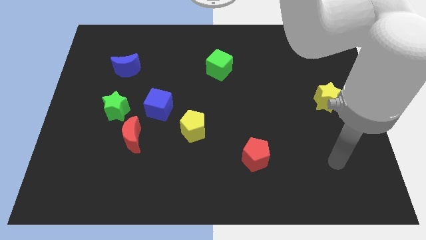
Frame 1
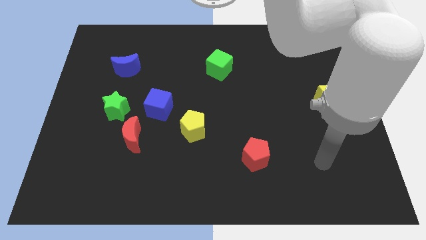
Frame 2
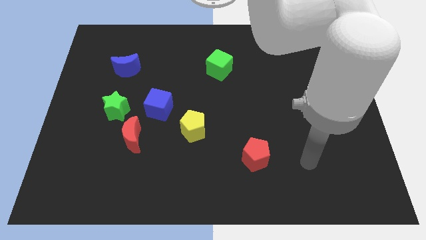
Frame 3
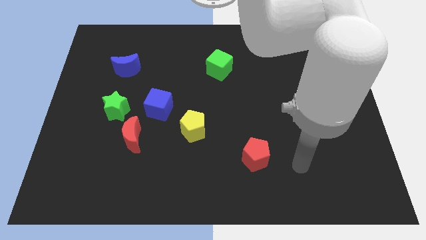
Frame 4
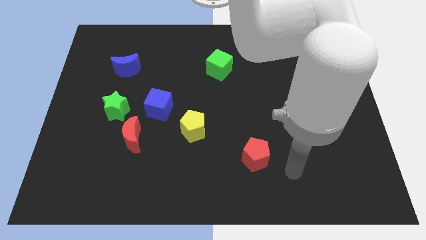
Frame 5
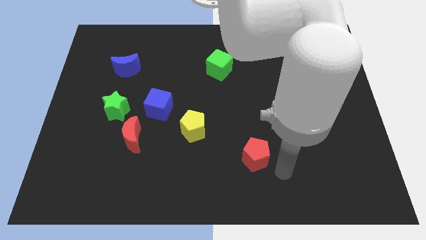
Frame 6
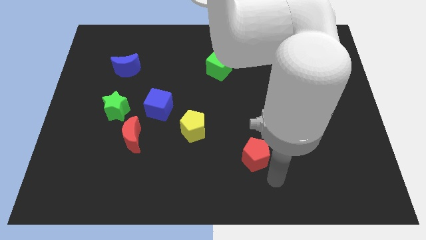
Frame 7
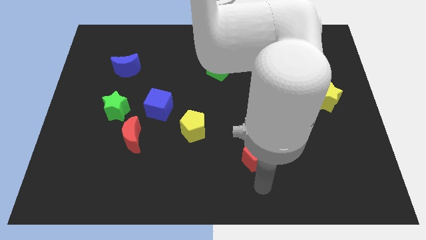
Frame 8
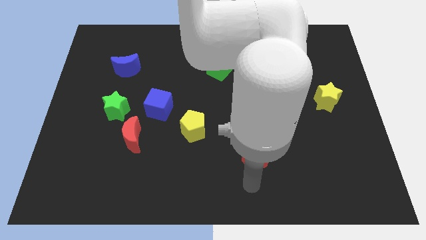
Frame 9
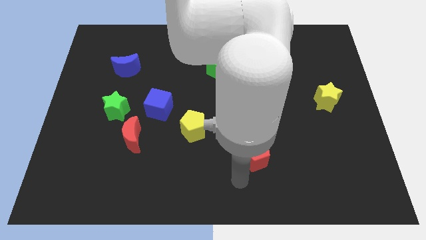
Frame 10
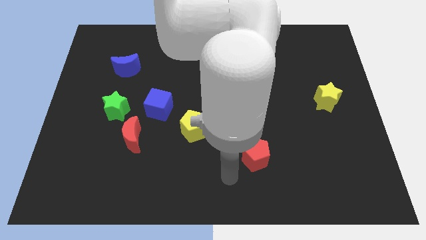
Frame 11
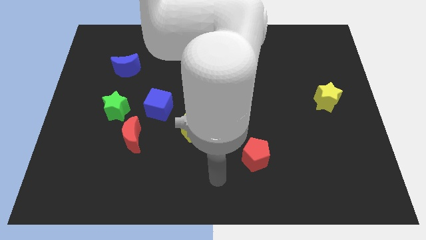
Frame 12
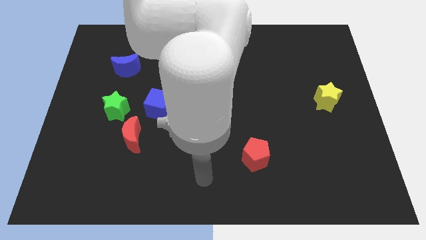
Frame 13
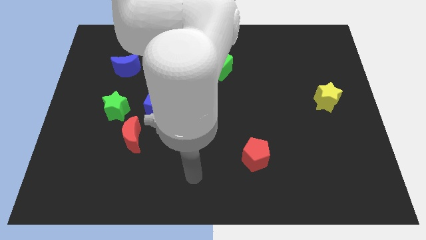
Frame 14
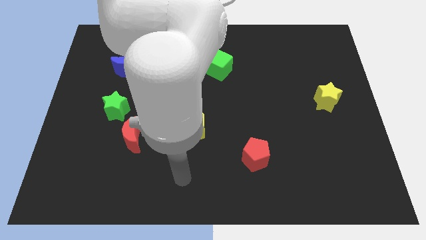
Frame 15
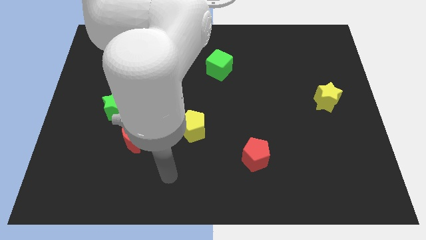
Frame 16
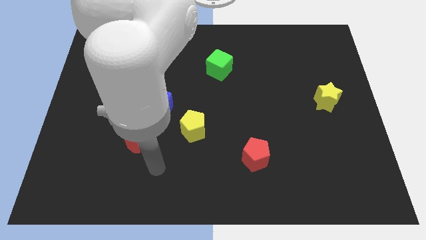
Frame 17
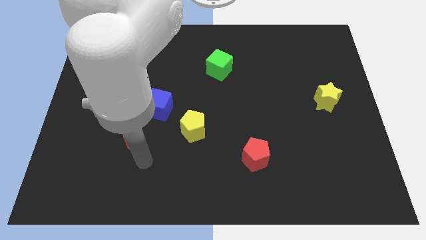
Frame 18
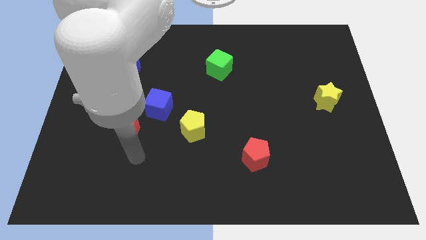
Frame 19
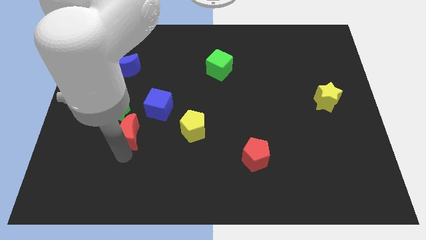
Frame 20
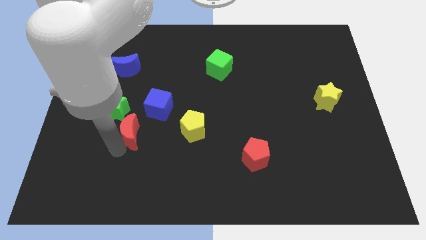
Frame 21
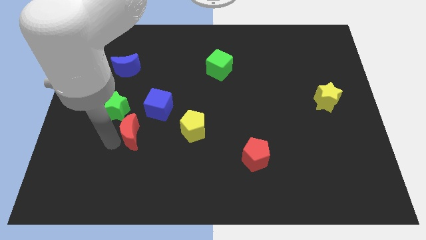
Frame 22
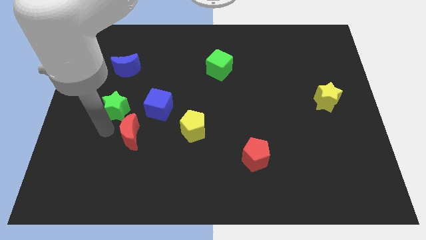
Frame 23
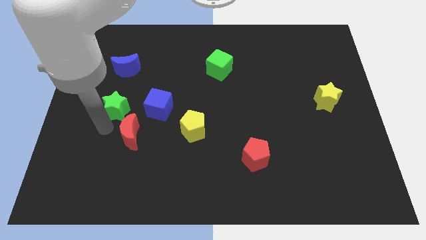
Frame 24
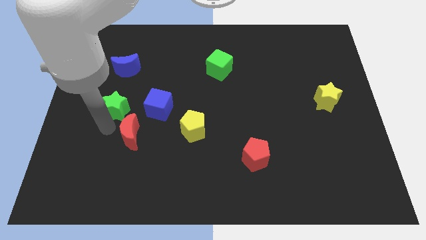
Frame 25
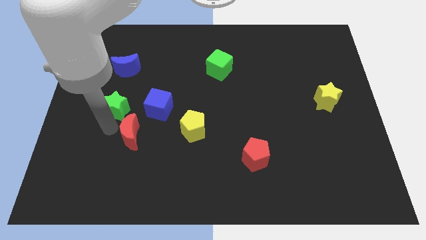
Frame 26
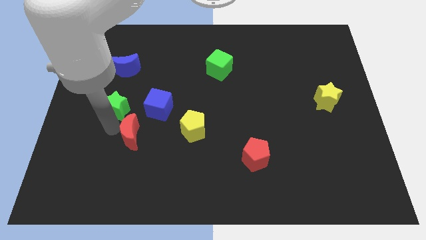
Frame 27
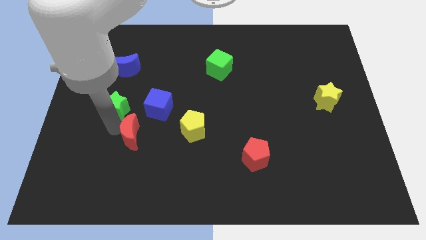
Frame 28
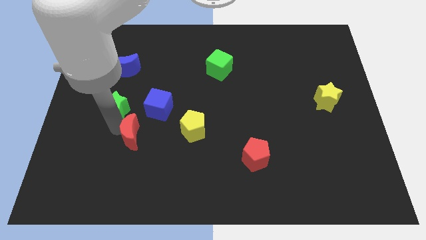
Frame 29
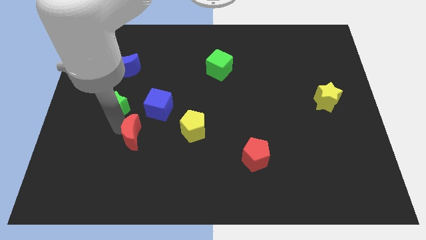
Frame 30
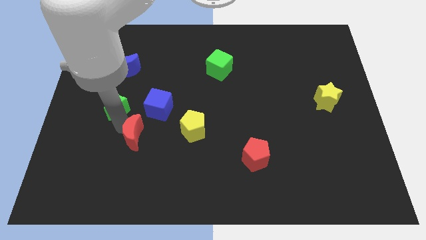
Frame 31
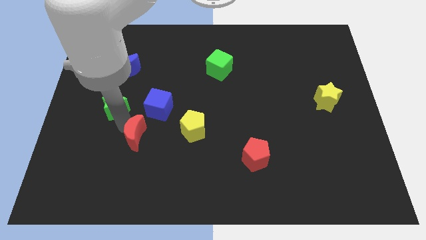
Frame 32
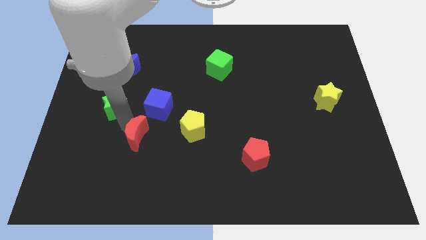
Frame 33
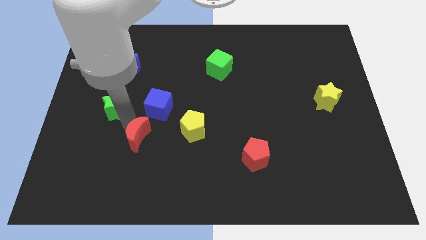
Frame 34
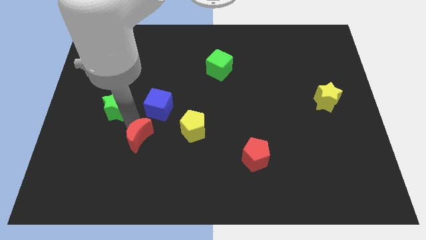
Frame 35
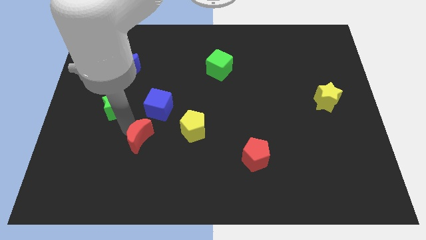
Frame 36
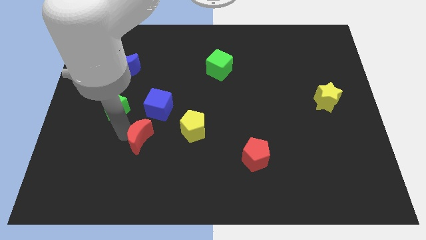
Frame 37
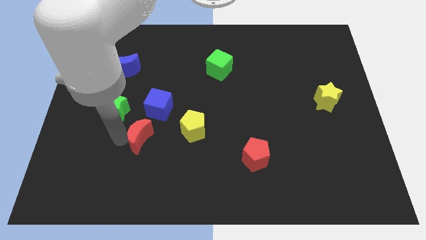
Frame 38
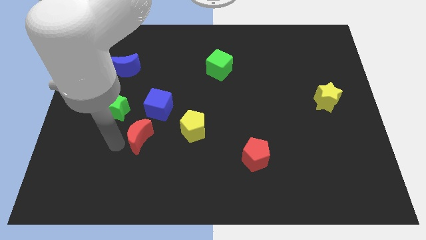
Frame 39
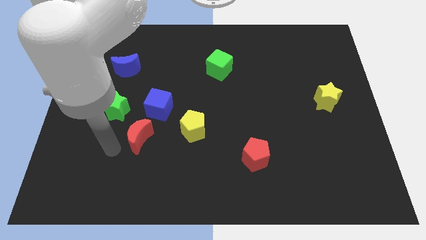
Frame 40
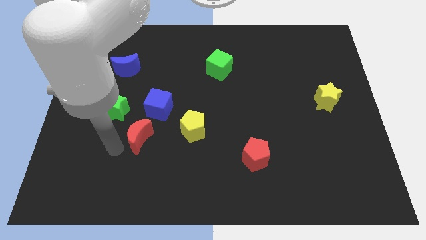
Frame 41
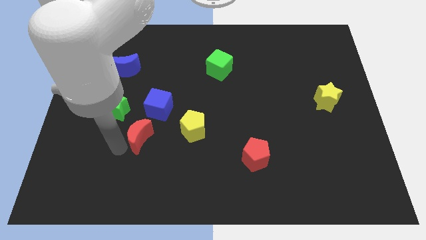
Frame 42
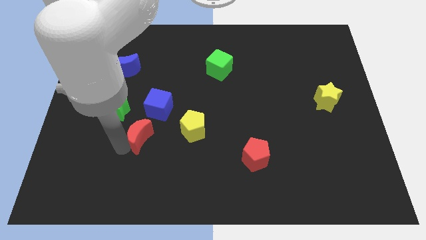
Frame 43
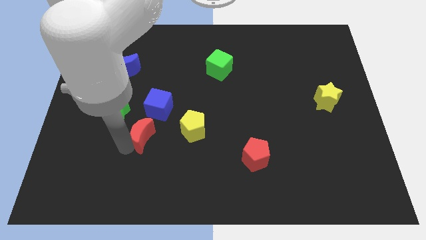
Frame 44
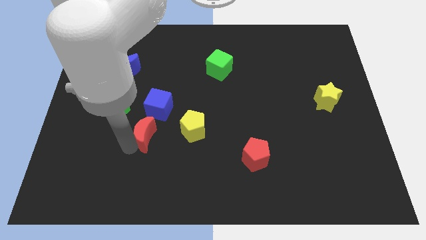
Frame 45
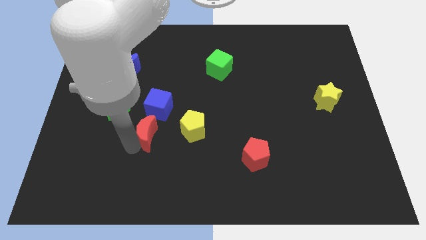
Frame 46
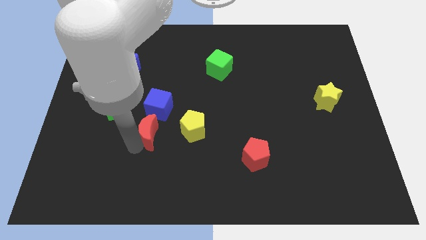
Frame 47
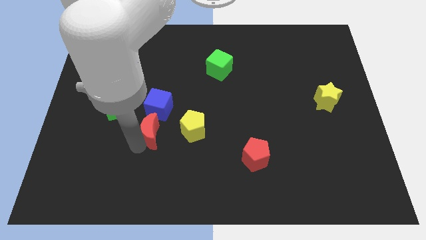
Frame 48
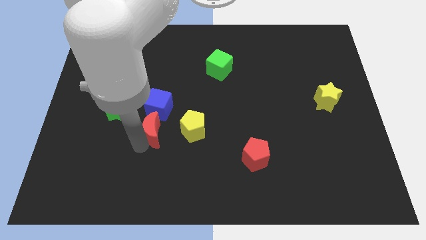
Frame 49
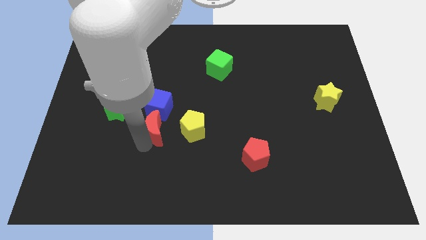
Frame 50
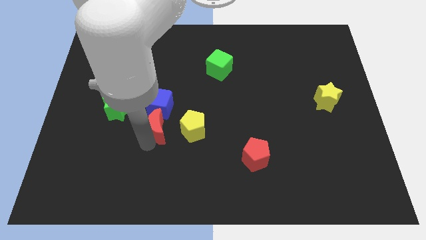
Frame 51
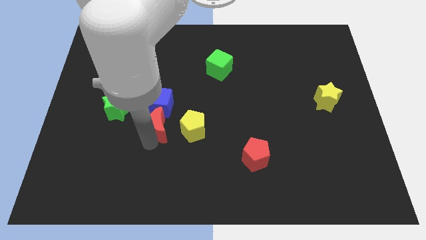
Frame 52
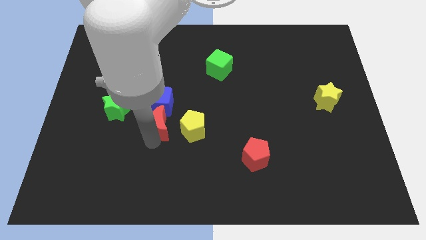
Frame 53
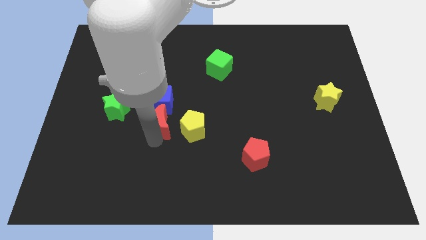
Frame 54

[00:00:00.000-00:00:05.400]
slightly slide the red moon up and right diagonally

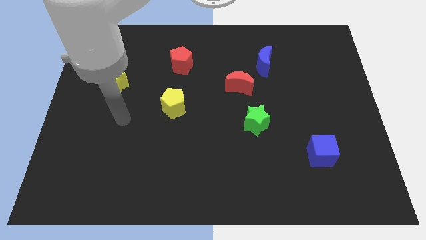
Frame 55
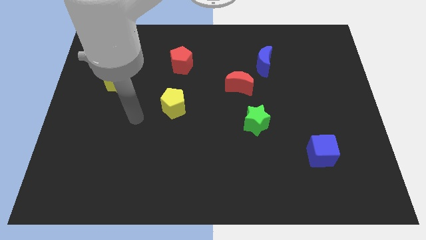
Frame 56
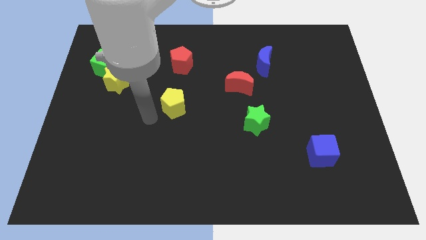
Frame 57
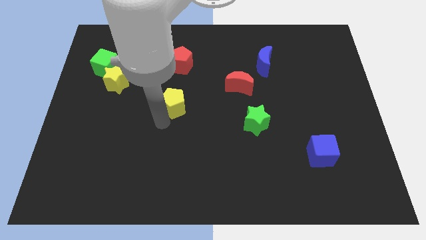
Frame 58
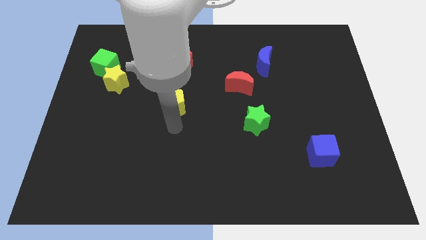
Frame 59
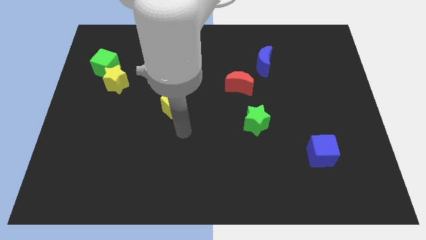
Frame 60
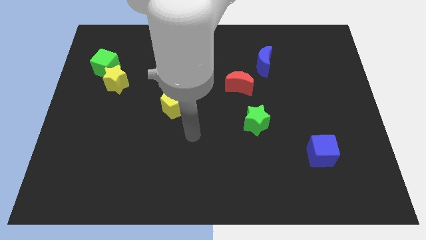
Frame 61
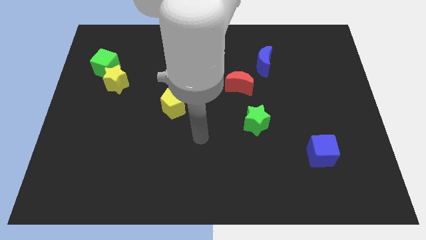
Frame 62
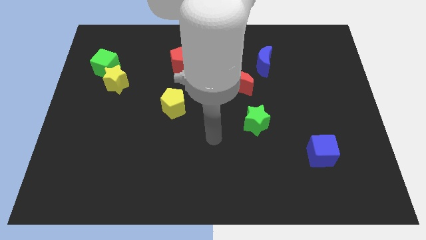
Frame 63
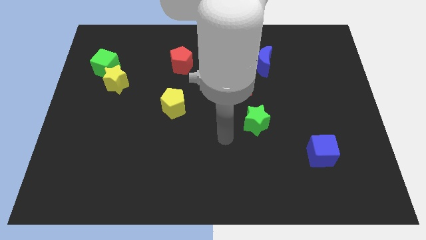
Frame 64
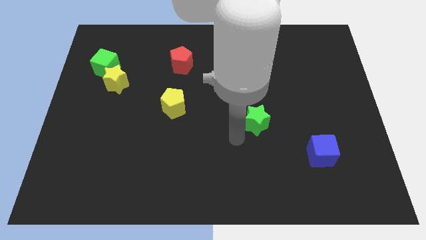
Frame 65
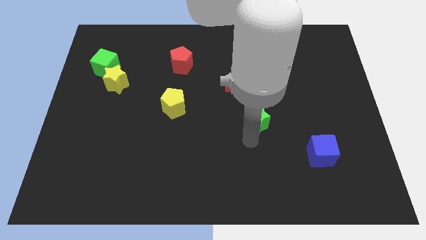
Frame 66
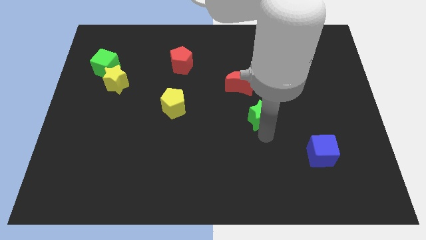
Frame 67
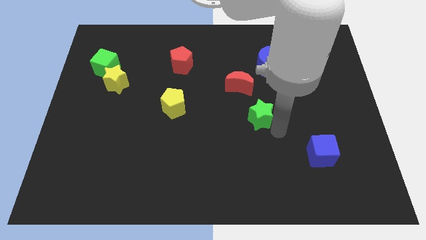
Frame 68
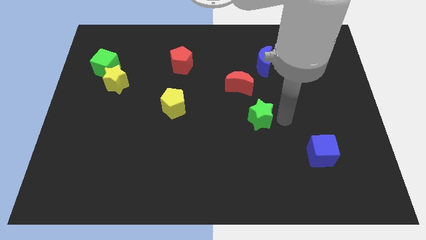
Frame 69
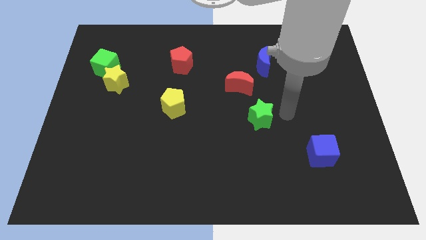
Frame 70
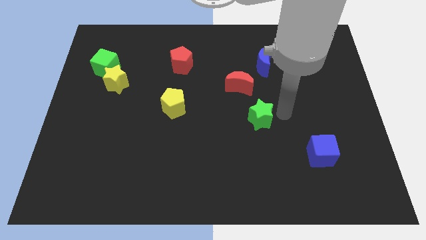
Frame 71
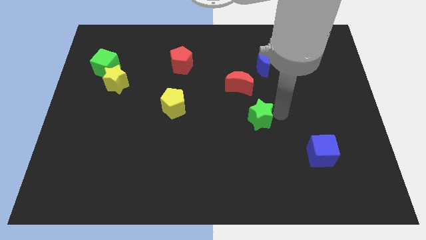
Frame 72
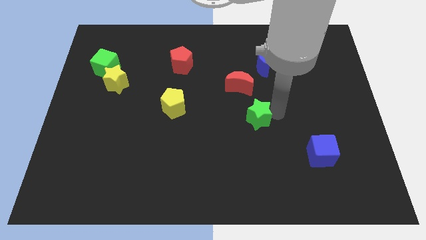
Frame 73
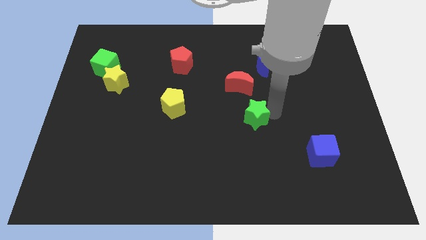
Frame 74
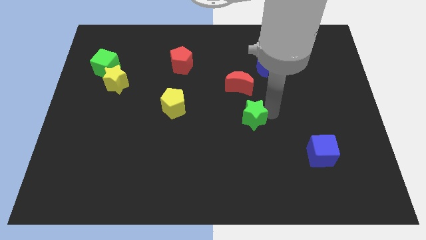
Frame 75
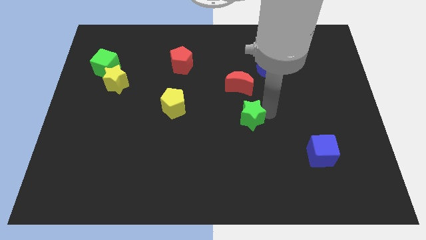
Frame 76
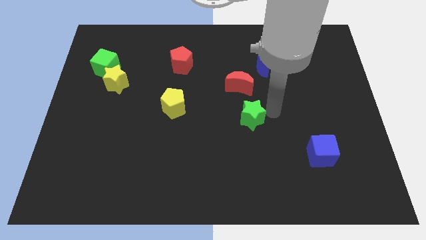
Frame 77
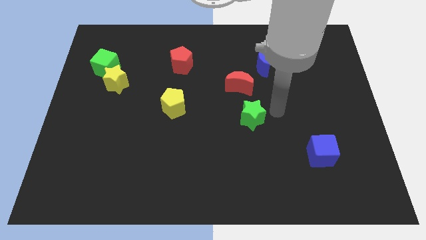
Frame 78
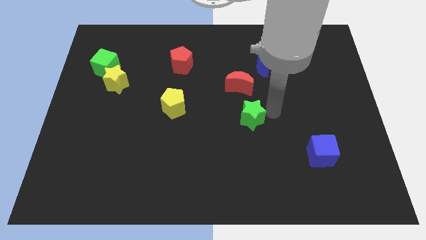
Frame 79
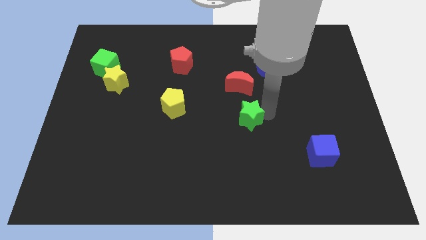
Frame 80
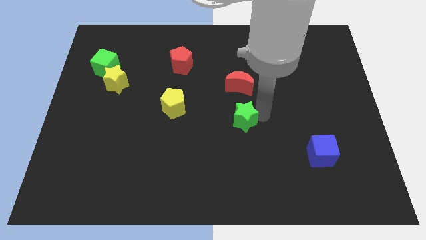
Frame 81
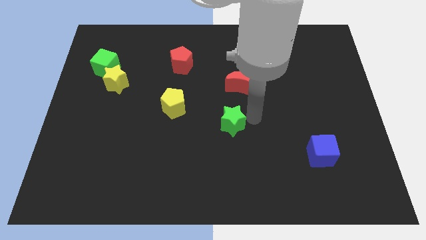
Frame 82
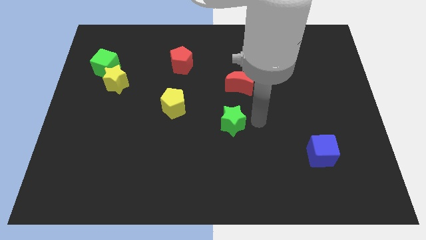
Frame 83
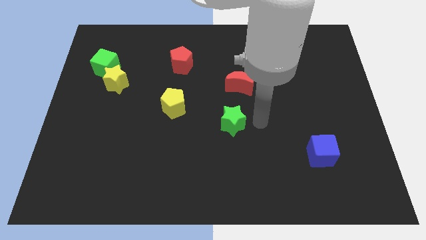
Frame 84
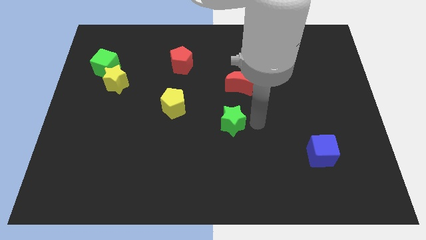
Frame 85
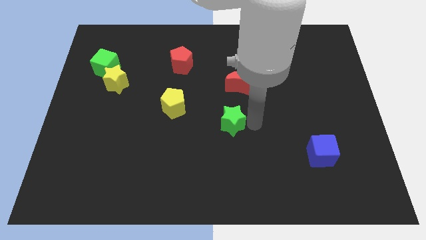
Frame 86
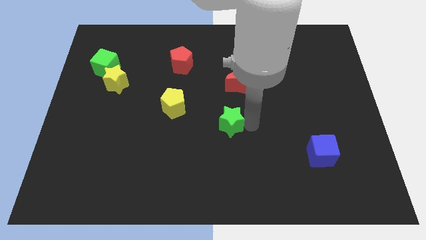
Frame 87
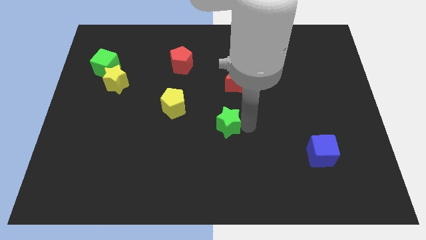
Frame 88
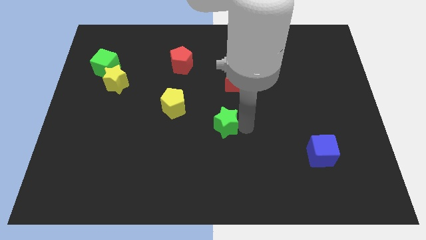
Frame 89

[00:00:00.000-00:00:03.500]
slide the green star to the left a little
